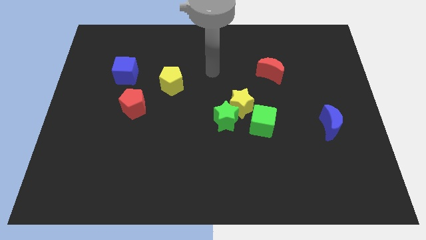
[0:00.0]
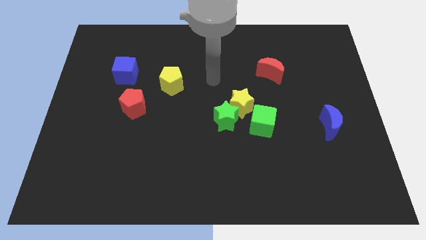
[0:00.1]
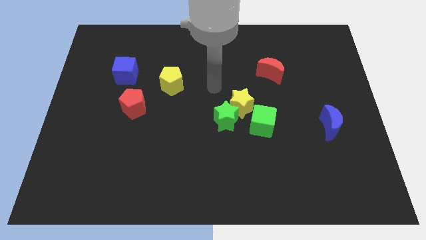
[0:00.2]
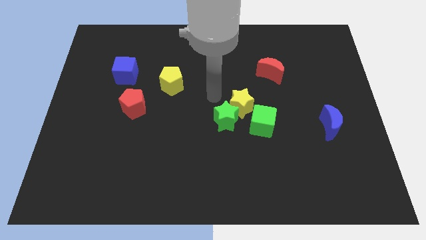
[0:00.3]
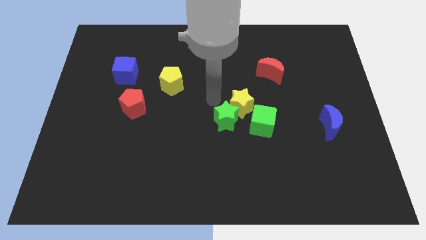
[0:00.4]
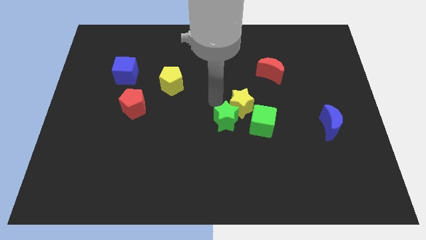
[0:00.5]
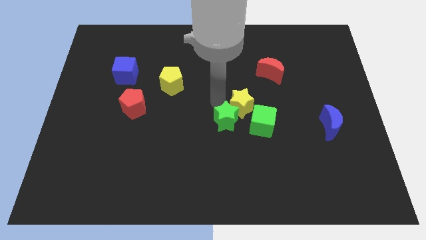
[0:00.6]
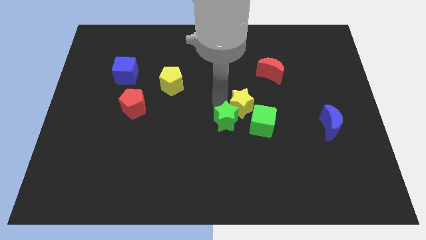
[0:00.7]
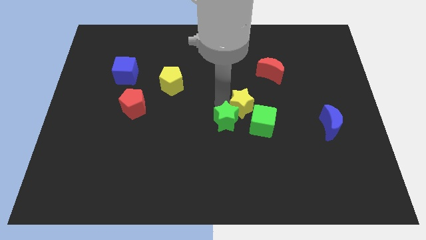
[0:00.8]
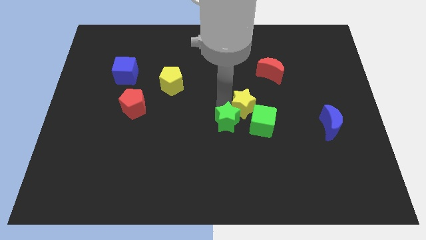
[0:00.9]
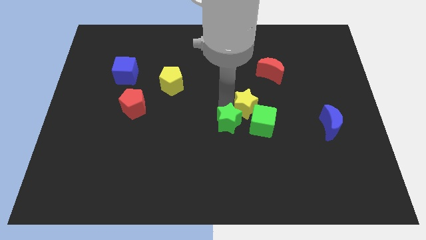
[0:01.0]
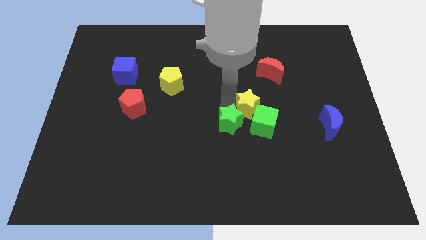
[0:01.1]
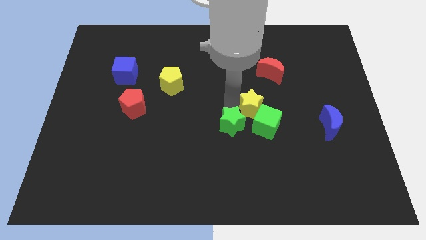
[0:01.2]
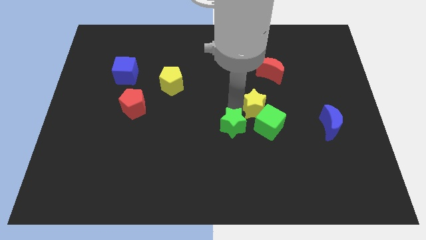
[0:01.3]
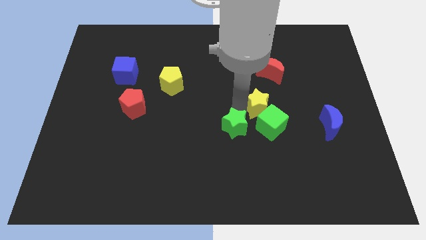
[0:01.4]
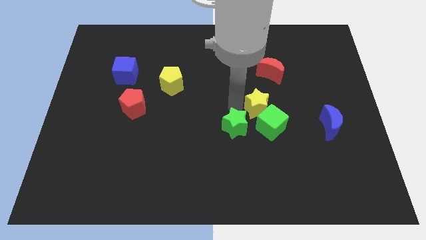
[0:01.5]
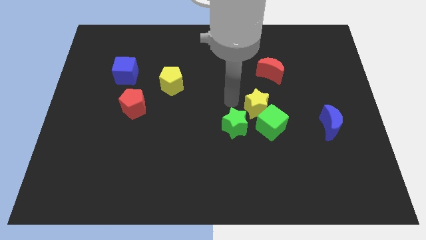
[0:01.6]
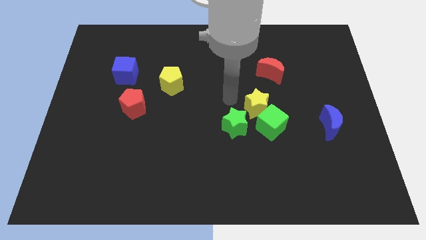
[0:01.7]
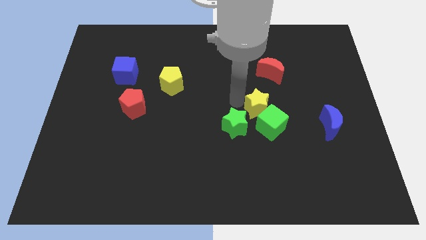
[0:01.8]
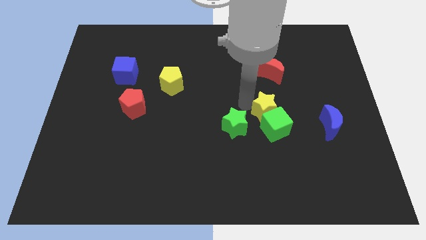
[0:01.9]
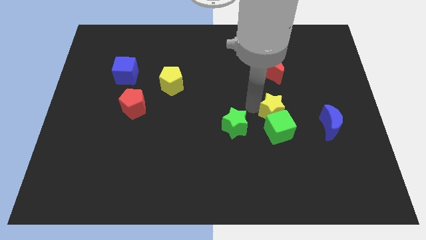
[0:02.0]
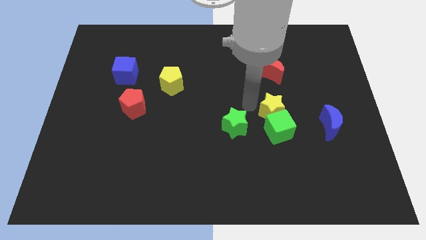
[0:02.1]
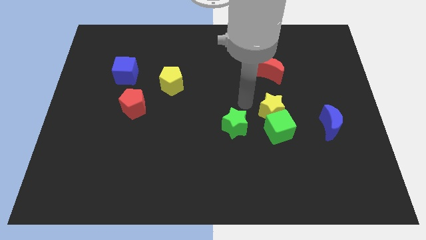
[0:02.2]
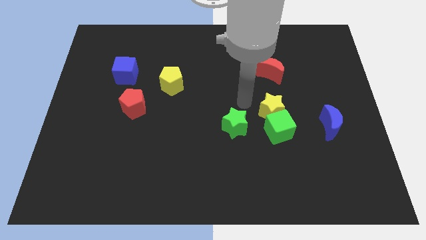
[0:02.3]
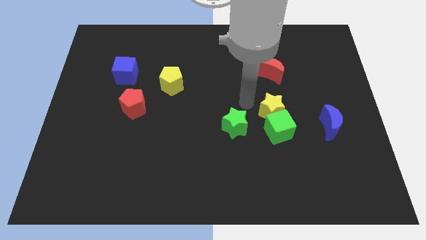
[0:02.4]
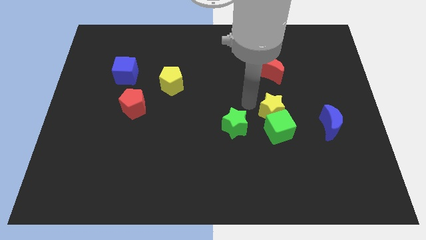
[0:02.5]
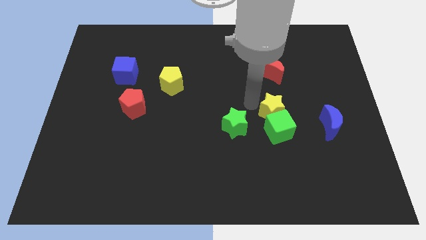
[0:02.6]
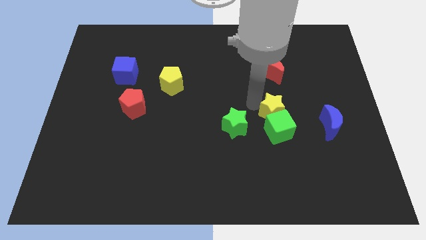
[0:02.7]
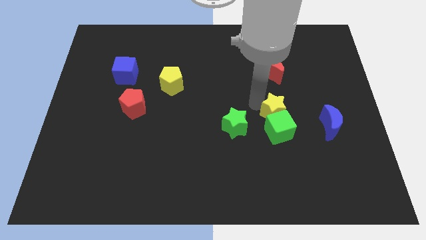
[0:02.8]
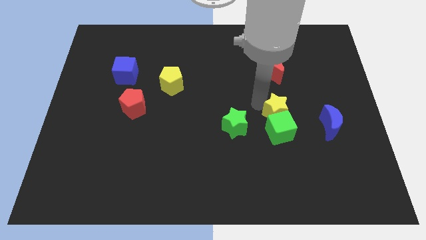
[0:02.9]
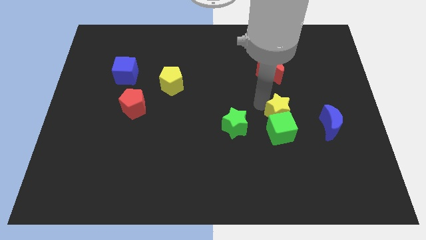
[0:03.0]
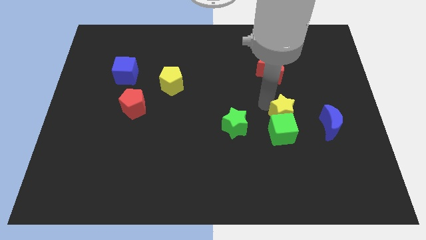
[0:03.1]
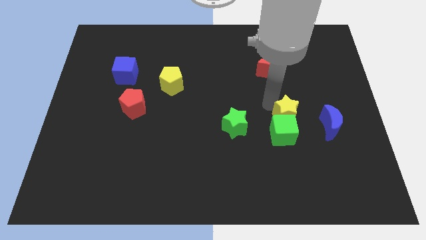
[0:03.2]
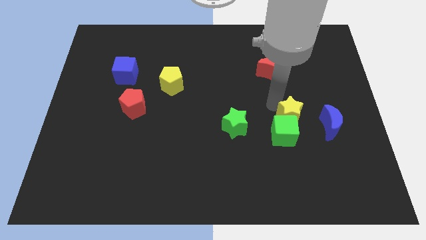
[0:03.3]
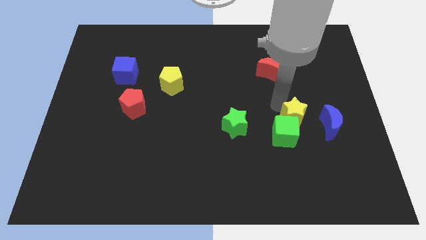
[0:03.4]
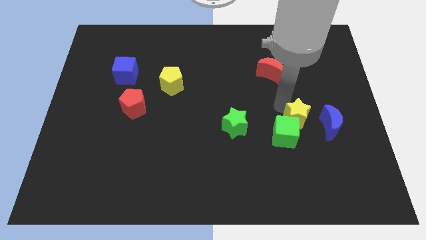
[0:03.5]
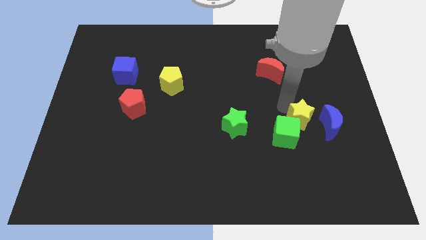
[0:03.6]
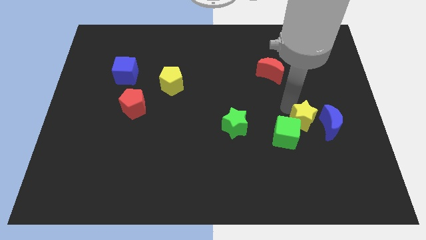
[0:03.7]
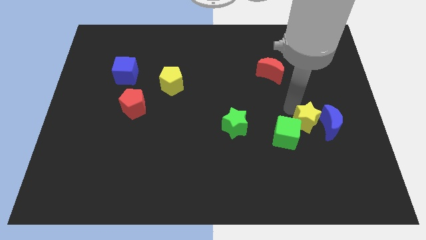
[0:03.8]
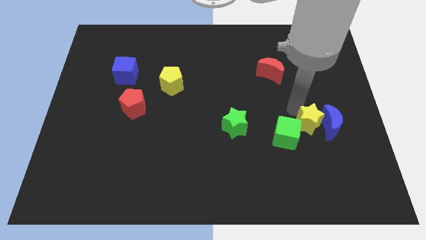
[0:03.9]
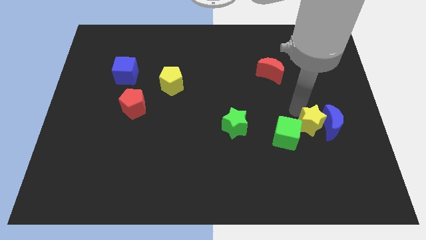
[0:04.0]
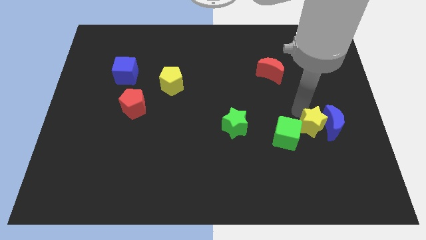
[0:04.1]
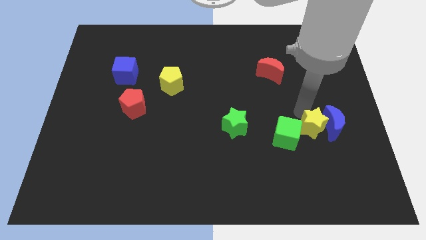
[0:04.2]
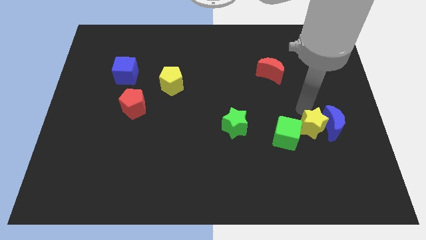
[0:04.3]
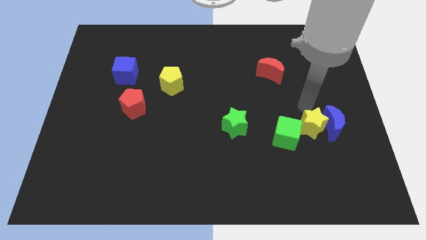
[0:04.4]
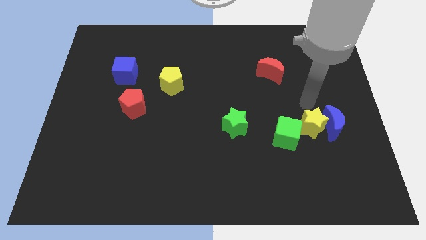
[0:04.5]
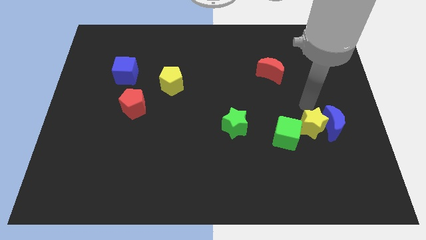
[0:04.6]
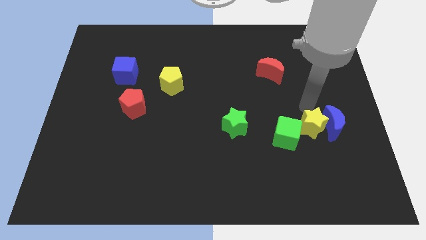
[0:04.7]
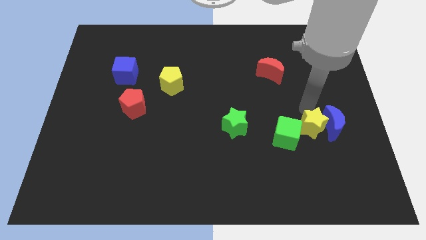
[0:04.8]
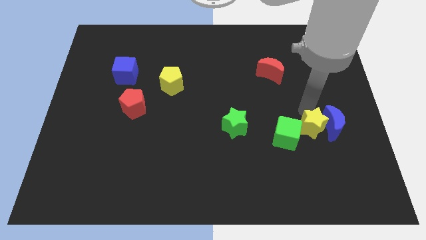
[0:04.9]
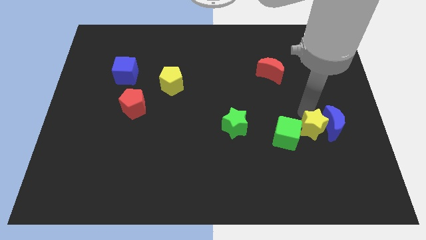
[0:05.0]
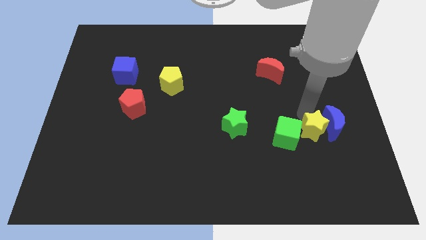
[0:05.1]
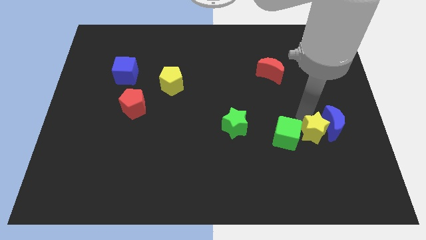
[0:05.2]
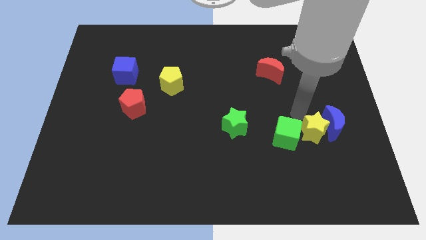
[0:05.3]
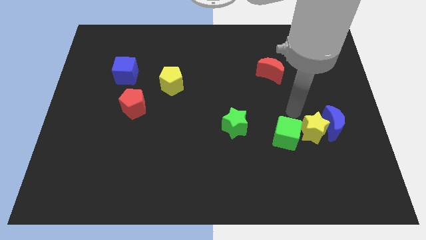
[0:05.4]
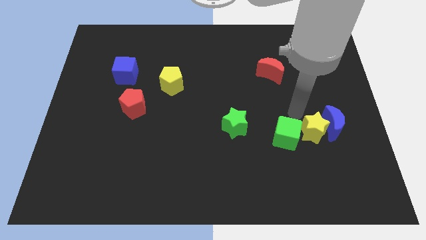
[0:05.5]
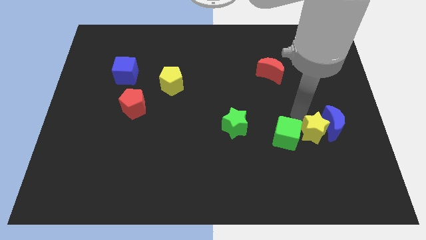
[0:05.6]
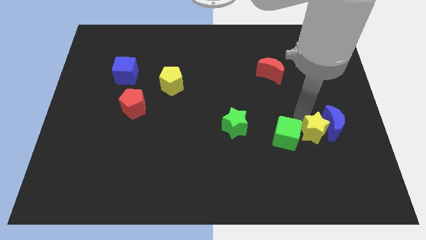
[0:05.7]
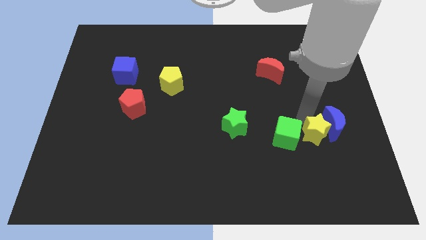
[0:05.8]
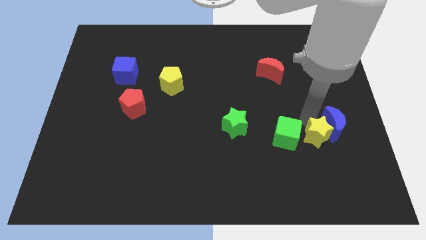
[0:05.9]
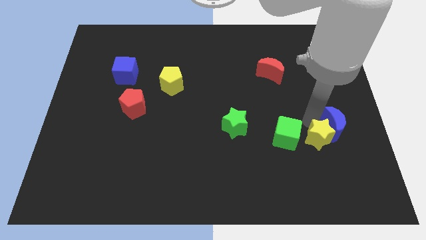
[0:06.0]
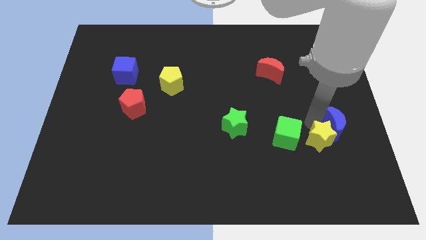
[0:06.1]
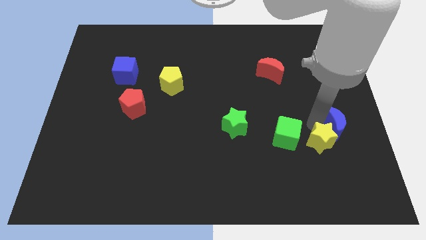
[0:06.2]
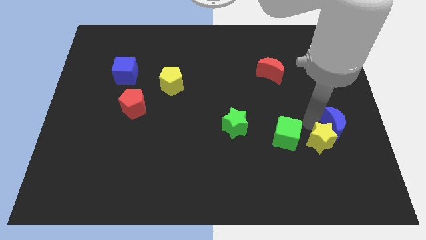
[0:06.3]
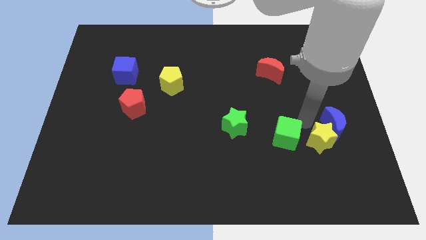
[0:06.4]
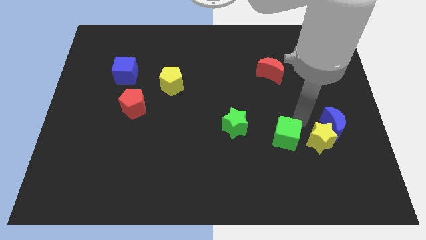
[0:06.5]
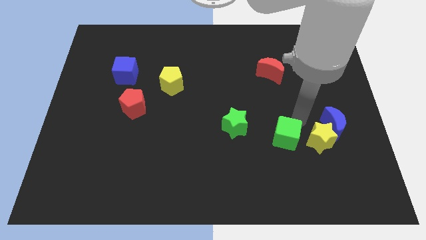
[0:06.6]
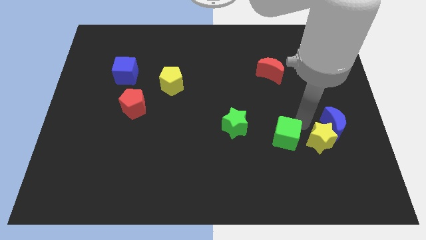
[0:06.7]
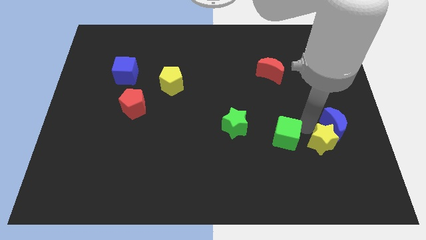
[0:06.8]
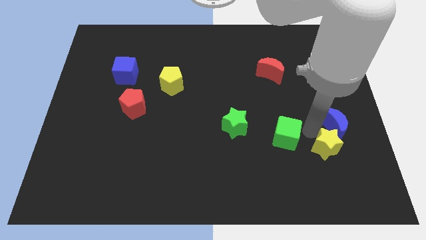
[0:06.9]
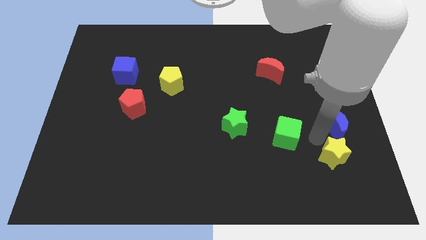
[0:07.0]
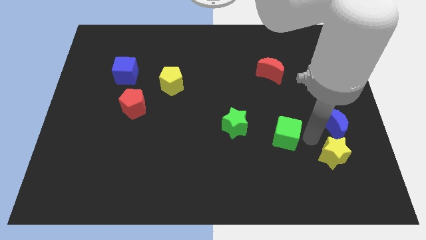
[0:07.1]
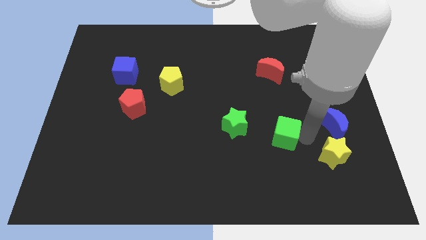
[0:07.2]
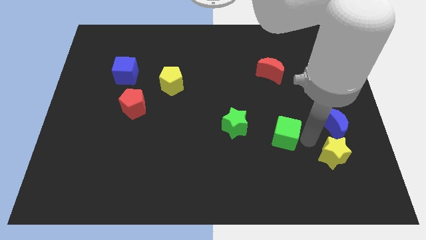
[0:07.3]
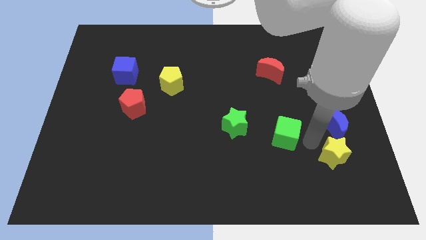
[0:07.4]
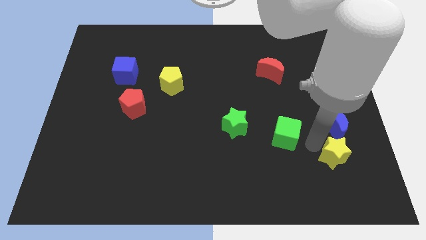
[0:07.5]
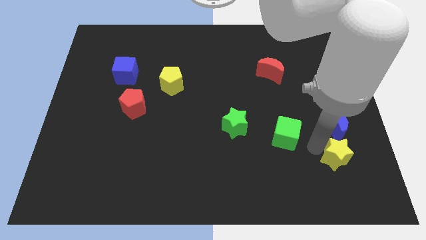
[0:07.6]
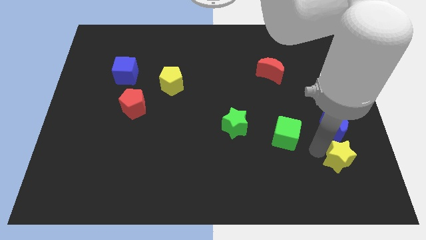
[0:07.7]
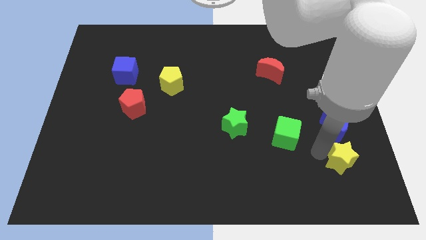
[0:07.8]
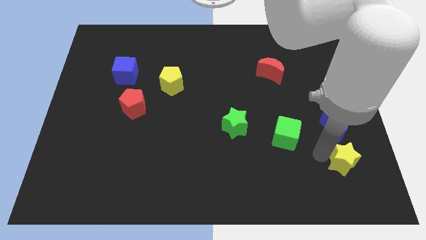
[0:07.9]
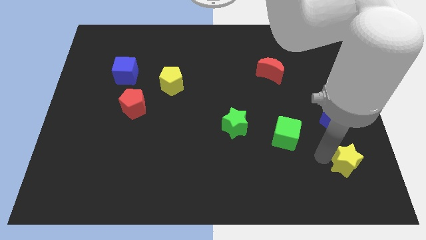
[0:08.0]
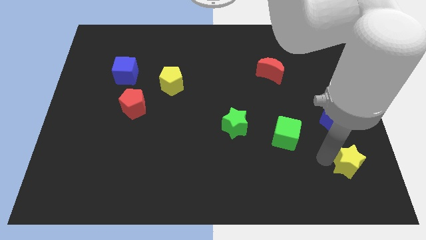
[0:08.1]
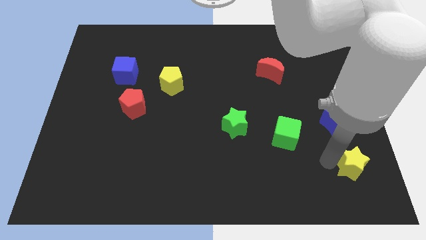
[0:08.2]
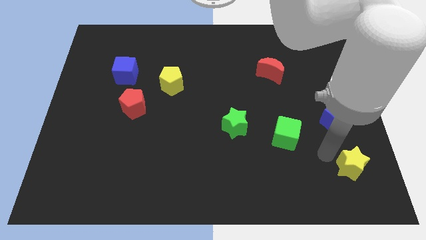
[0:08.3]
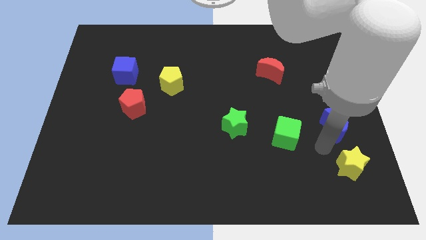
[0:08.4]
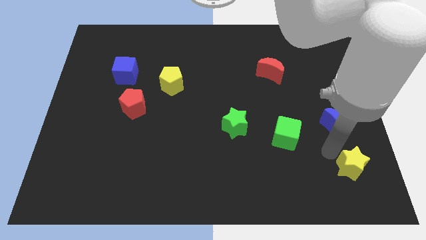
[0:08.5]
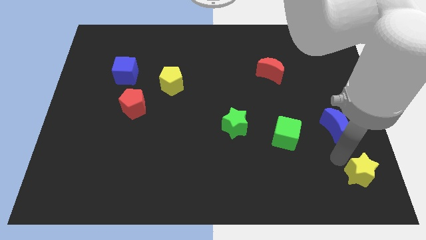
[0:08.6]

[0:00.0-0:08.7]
put the yellow star to the bottom right of the board
